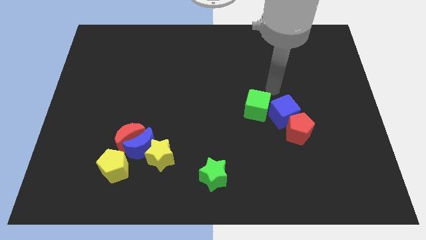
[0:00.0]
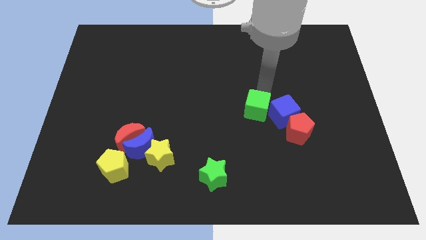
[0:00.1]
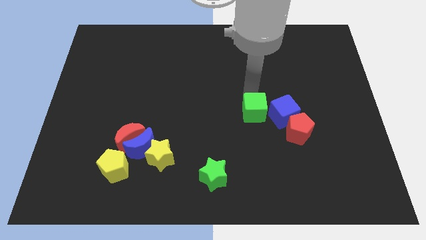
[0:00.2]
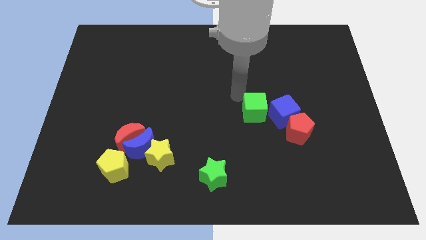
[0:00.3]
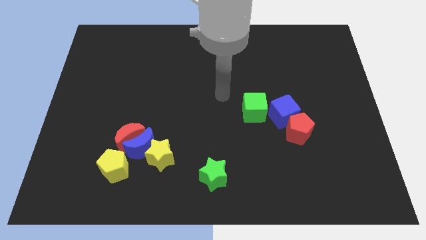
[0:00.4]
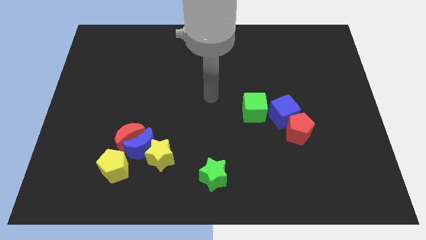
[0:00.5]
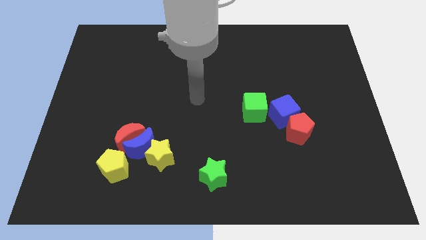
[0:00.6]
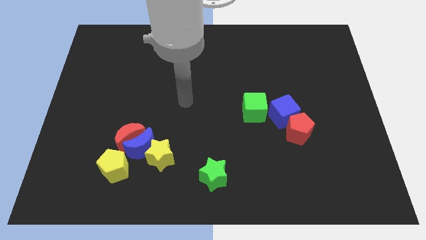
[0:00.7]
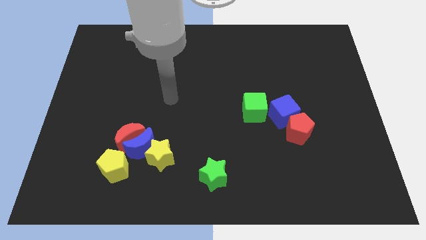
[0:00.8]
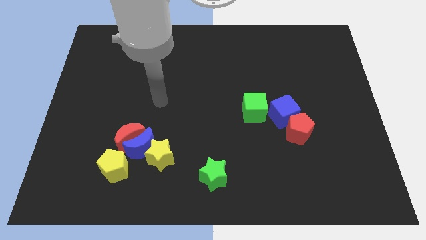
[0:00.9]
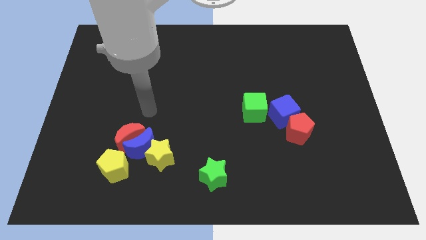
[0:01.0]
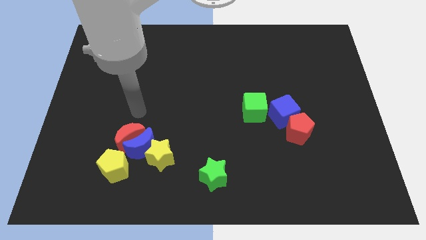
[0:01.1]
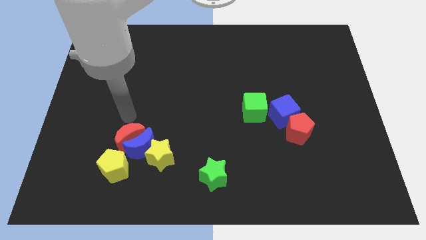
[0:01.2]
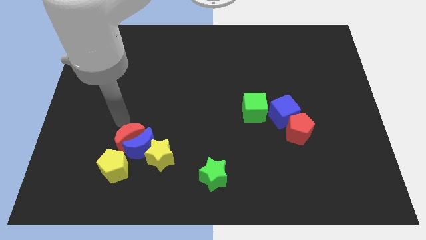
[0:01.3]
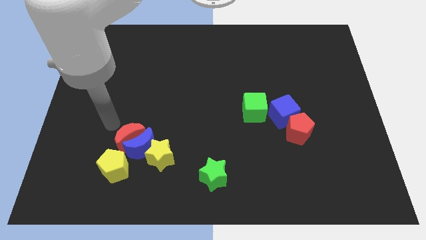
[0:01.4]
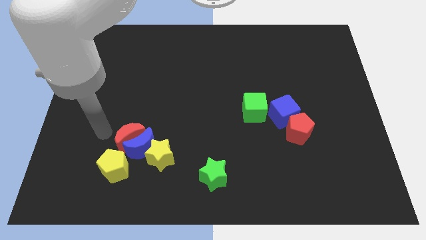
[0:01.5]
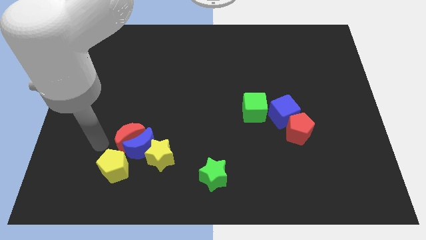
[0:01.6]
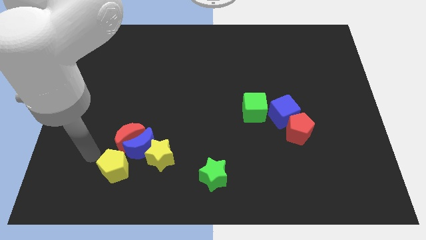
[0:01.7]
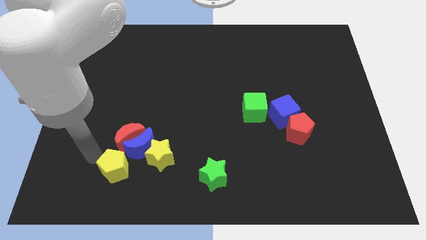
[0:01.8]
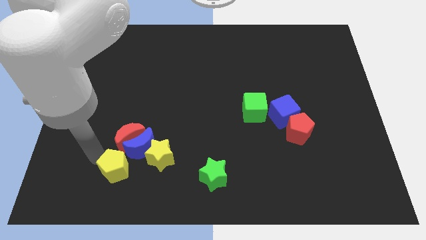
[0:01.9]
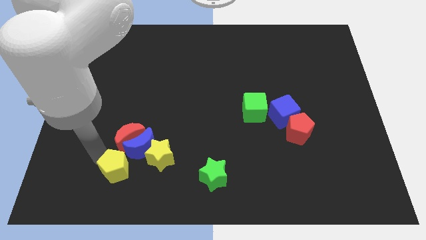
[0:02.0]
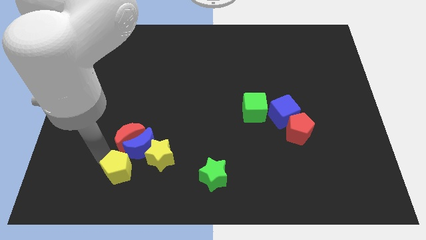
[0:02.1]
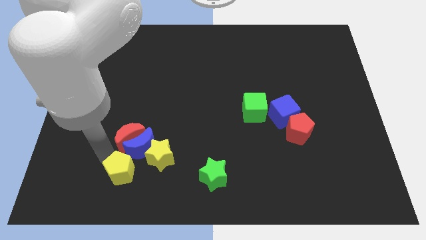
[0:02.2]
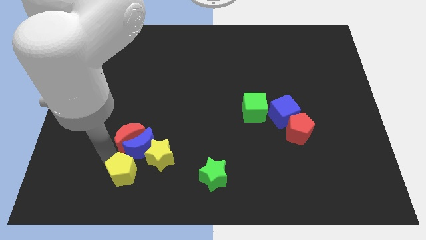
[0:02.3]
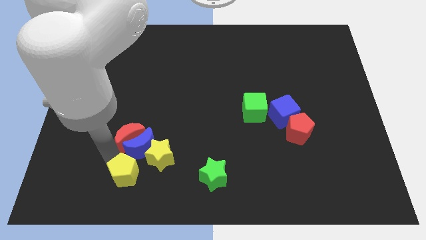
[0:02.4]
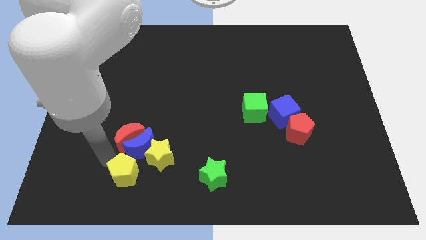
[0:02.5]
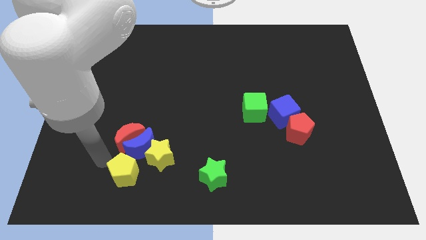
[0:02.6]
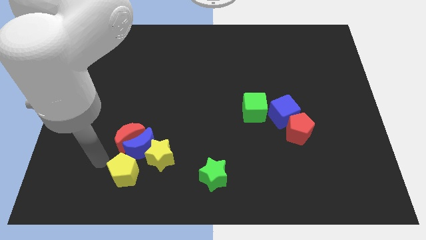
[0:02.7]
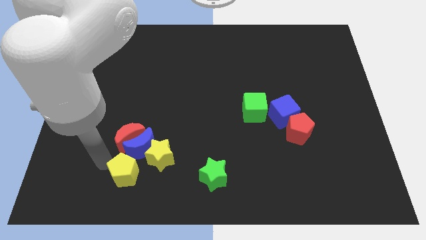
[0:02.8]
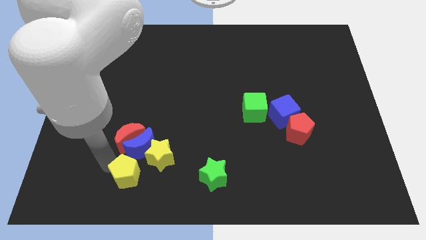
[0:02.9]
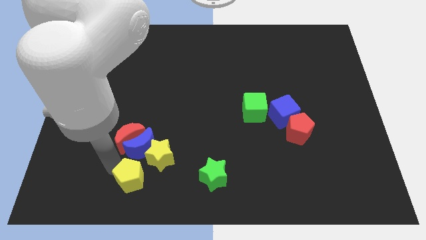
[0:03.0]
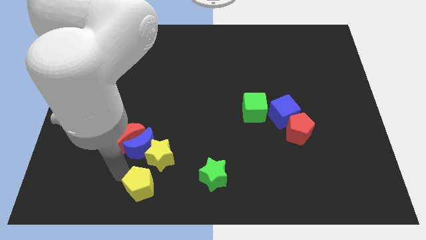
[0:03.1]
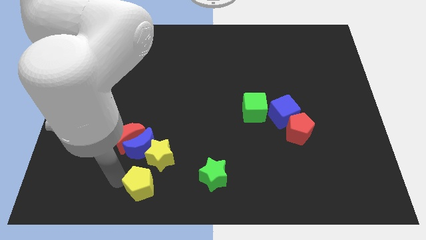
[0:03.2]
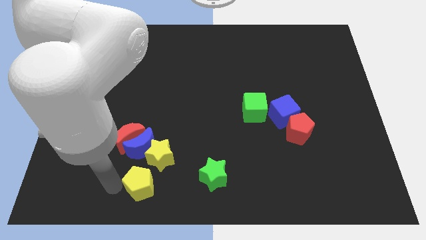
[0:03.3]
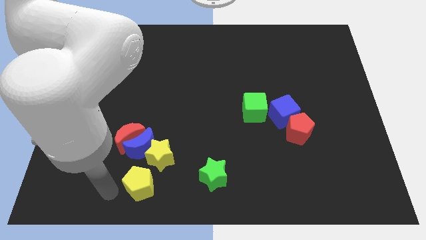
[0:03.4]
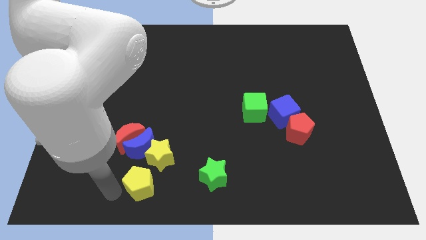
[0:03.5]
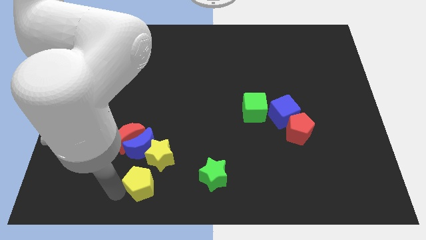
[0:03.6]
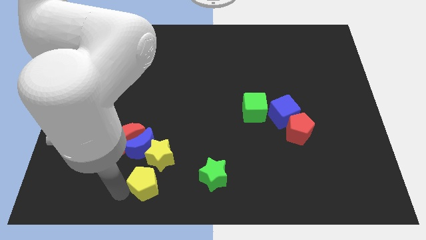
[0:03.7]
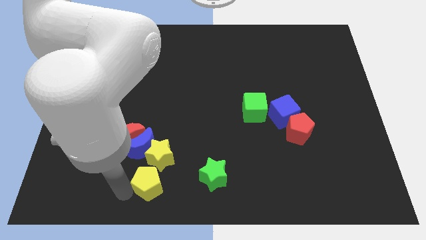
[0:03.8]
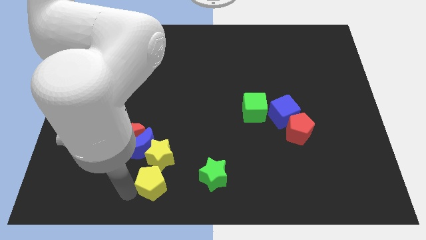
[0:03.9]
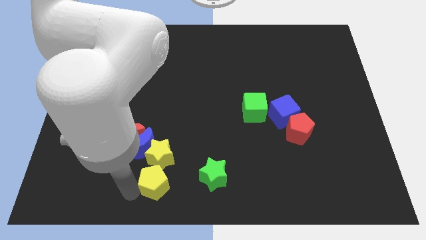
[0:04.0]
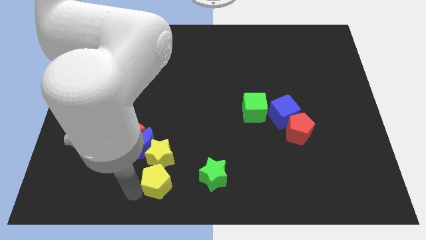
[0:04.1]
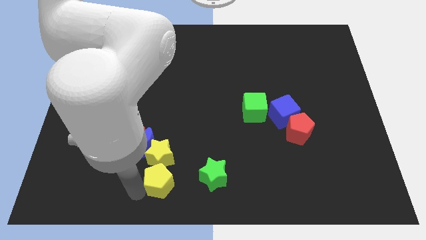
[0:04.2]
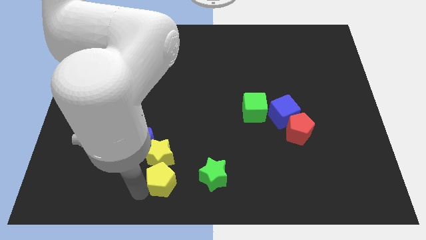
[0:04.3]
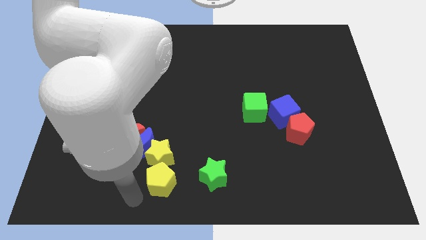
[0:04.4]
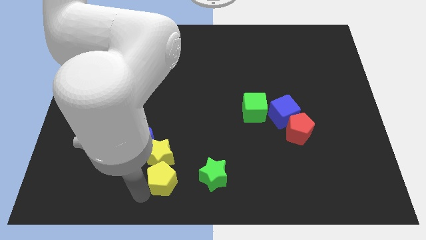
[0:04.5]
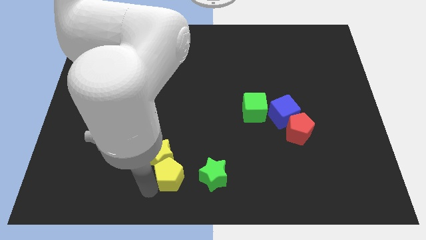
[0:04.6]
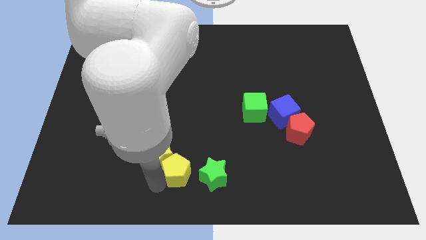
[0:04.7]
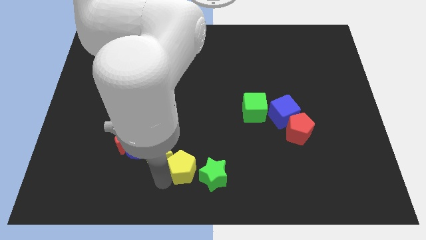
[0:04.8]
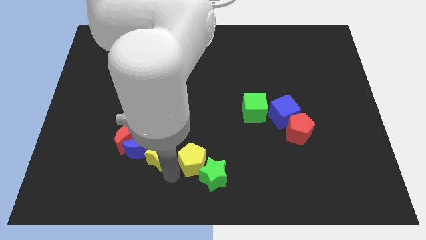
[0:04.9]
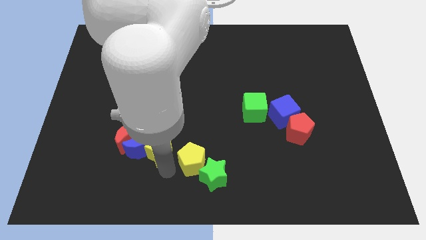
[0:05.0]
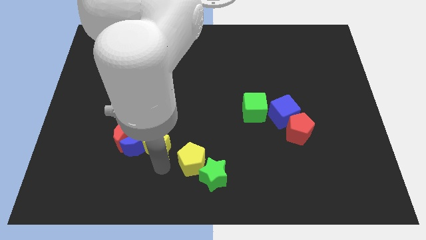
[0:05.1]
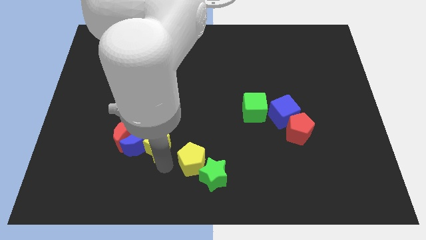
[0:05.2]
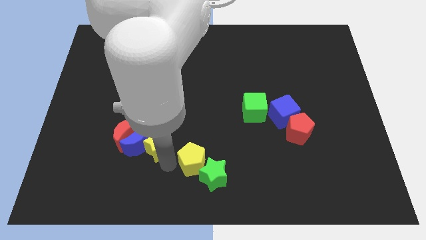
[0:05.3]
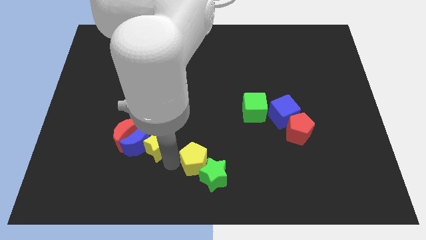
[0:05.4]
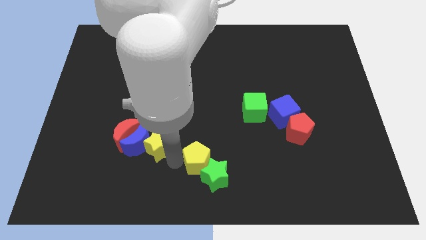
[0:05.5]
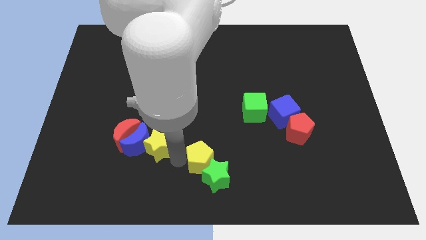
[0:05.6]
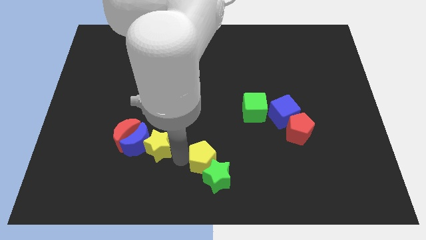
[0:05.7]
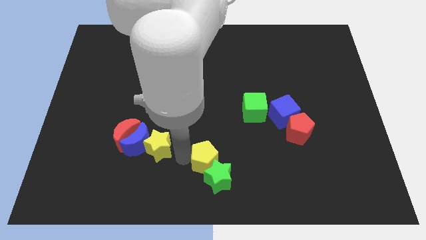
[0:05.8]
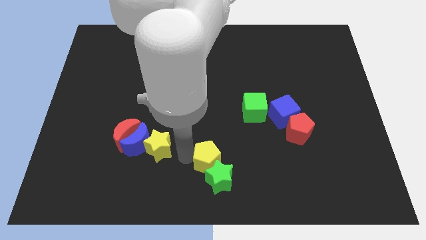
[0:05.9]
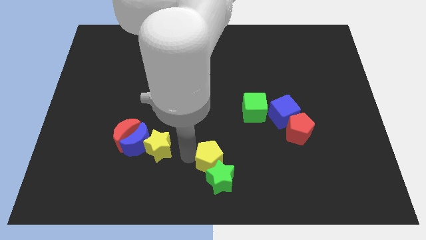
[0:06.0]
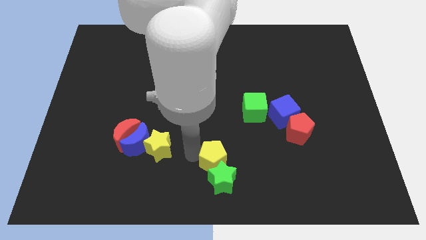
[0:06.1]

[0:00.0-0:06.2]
move the yellow pentagon right

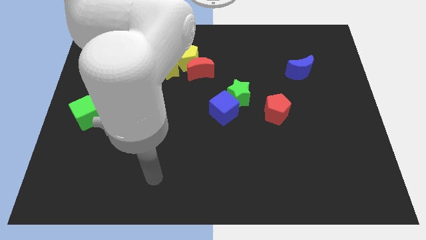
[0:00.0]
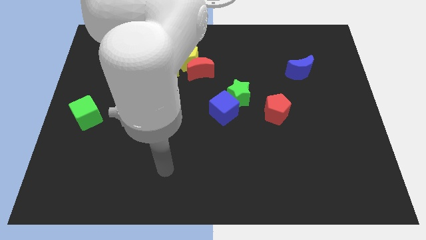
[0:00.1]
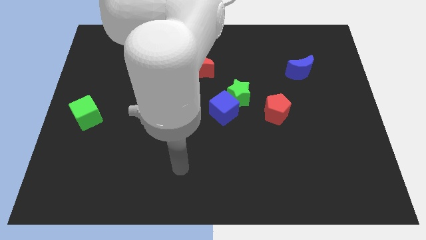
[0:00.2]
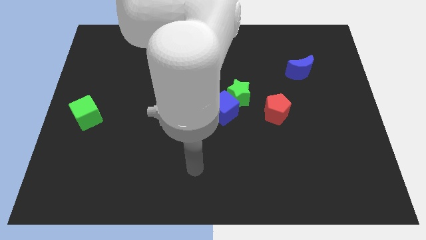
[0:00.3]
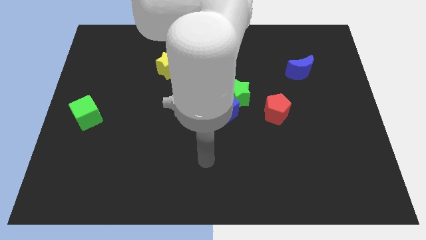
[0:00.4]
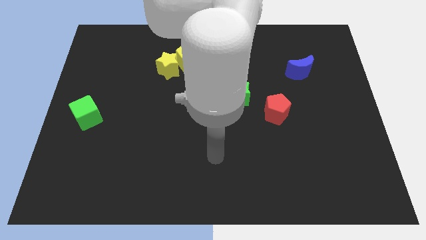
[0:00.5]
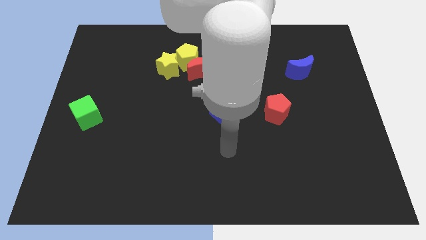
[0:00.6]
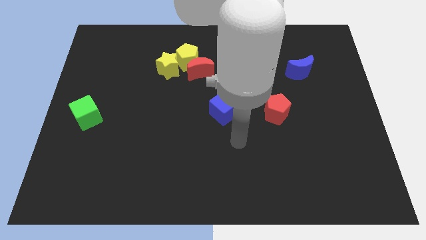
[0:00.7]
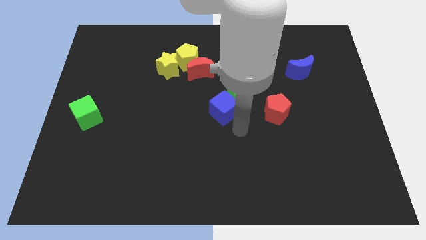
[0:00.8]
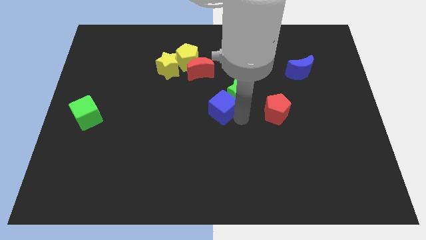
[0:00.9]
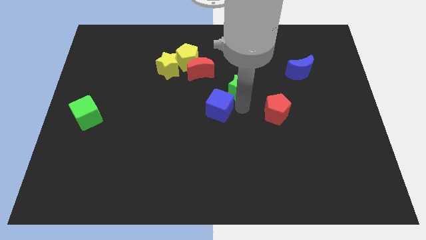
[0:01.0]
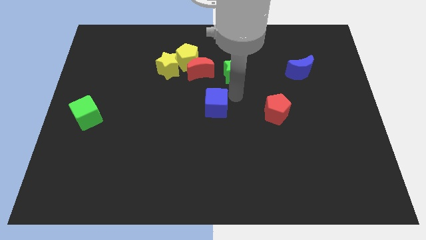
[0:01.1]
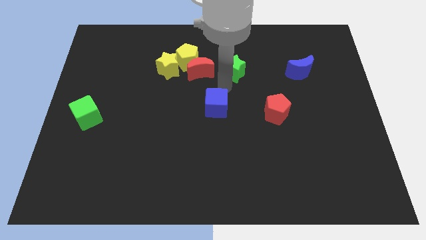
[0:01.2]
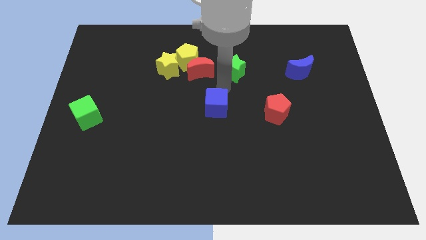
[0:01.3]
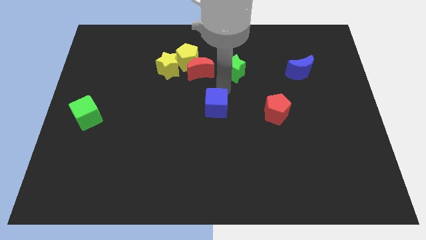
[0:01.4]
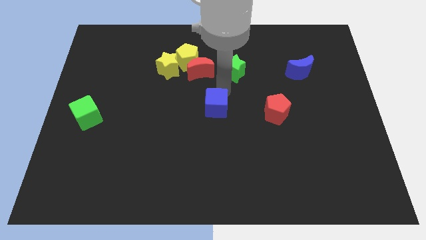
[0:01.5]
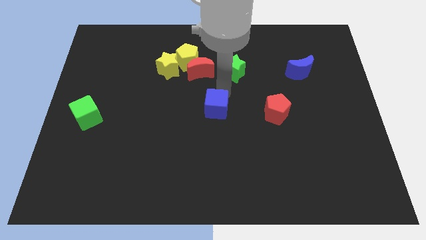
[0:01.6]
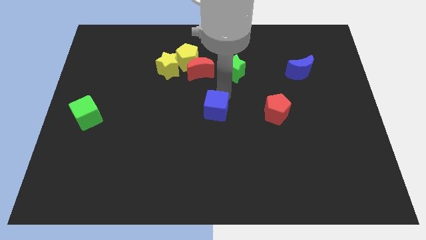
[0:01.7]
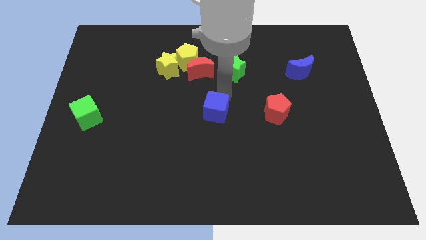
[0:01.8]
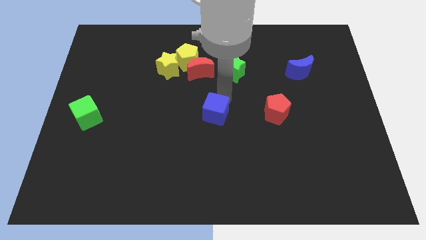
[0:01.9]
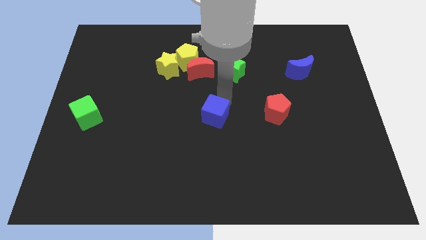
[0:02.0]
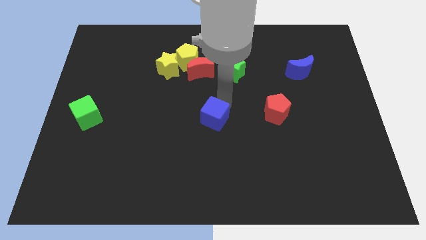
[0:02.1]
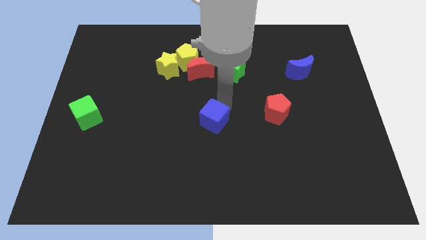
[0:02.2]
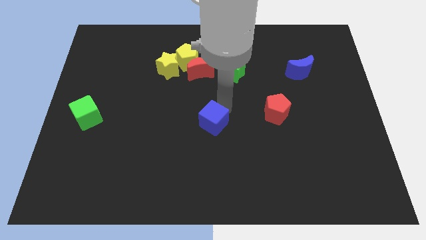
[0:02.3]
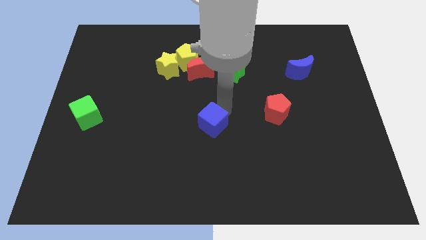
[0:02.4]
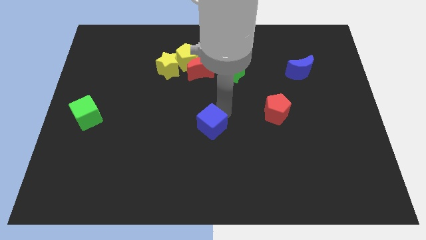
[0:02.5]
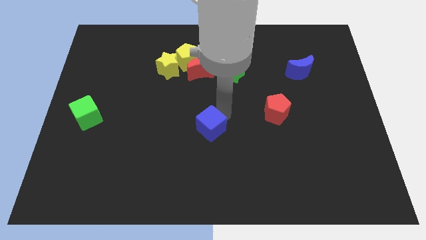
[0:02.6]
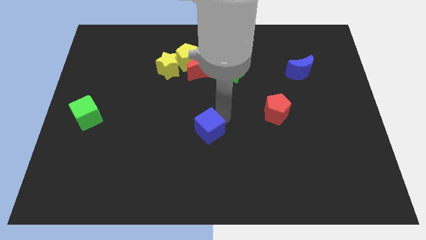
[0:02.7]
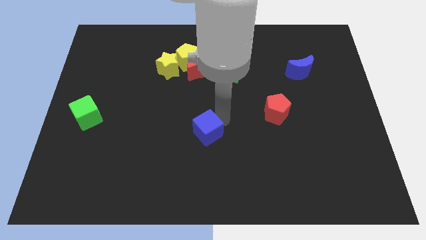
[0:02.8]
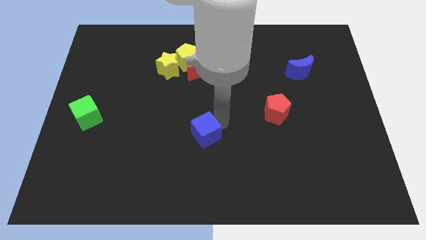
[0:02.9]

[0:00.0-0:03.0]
push the blue cube a little bit down and left diagonally
